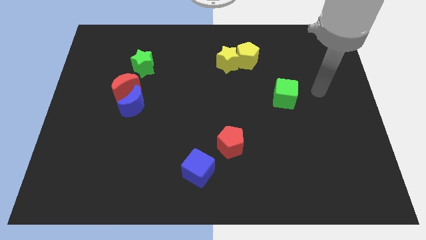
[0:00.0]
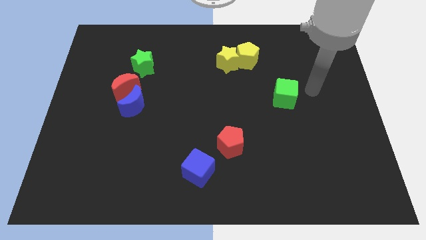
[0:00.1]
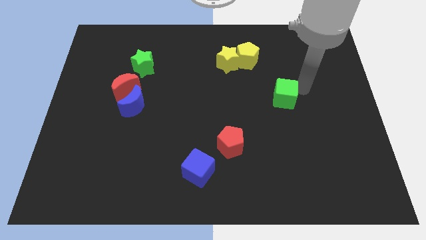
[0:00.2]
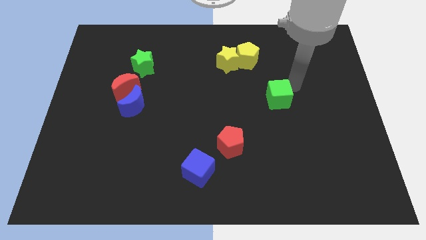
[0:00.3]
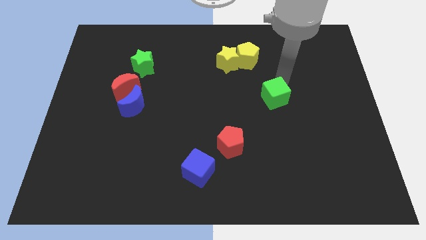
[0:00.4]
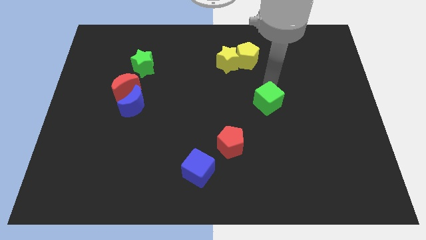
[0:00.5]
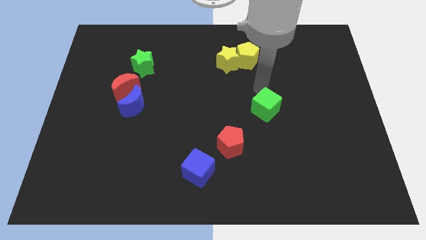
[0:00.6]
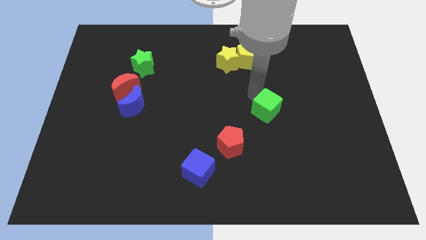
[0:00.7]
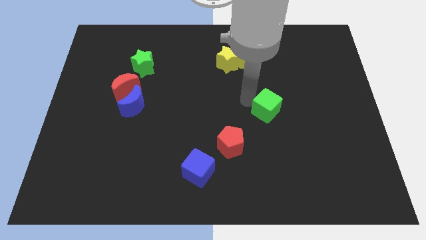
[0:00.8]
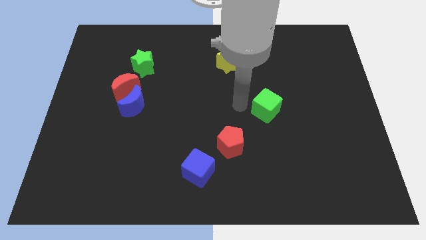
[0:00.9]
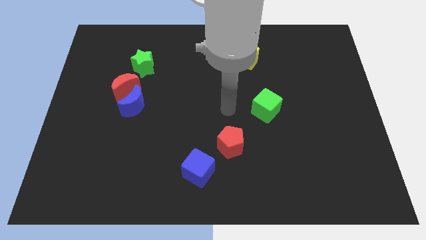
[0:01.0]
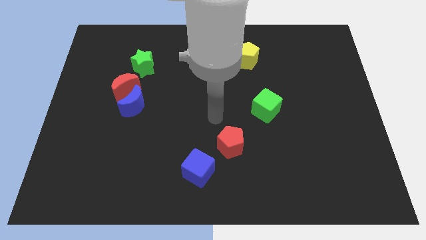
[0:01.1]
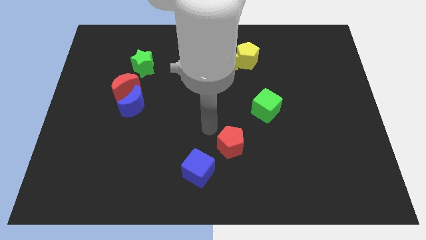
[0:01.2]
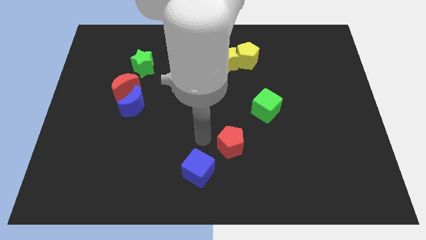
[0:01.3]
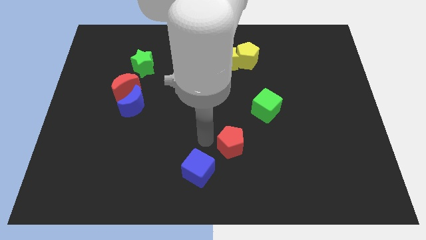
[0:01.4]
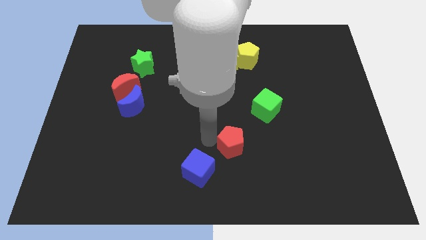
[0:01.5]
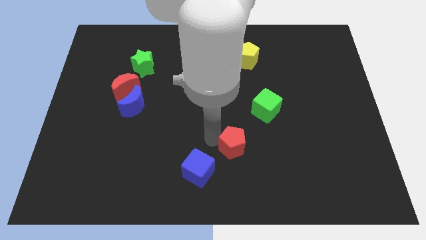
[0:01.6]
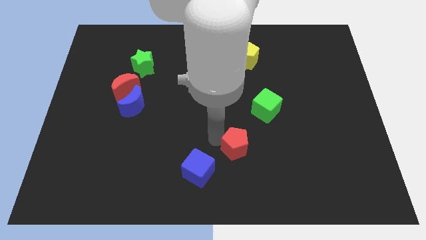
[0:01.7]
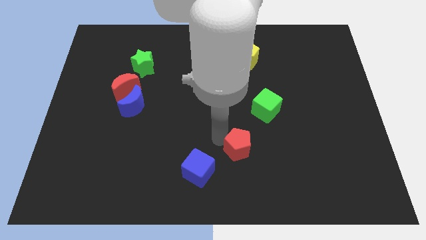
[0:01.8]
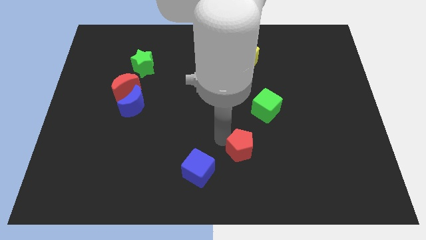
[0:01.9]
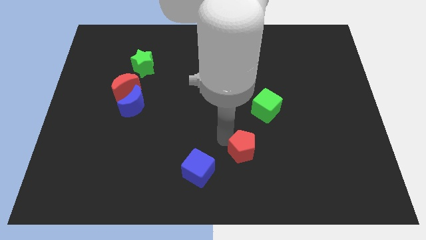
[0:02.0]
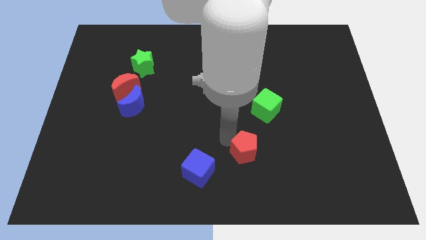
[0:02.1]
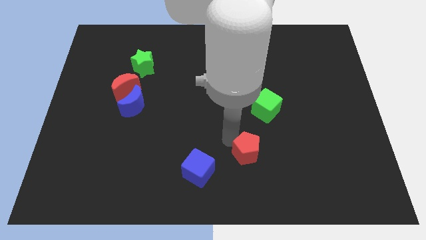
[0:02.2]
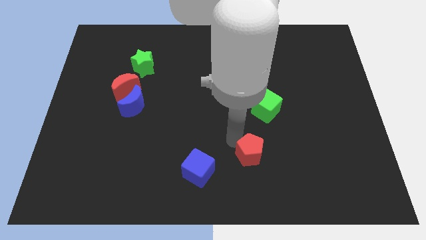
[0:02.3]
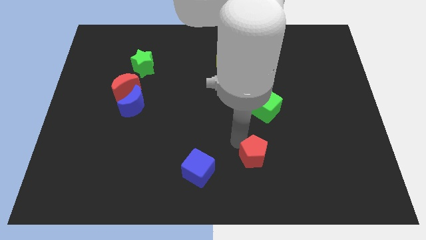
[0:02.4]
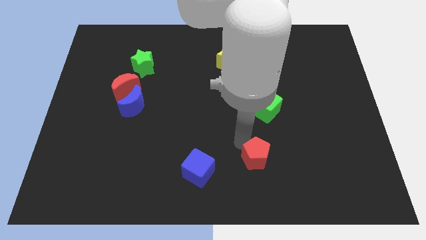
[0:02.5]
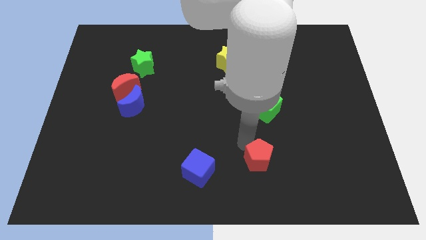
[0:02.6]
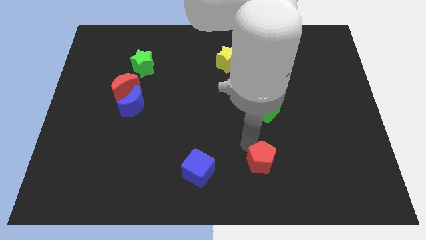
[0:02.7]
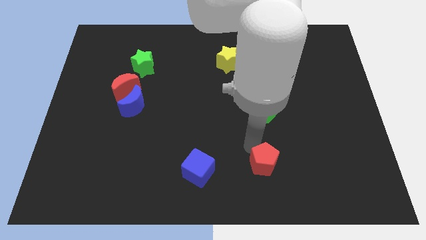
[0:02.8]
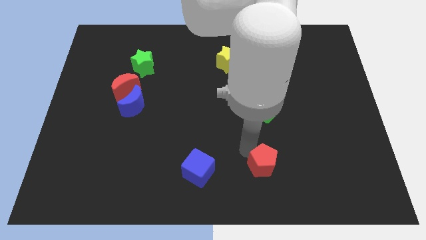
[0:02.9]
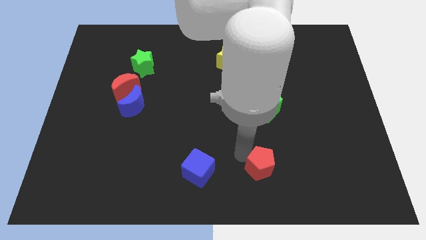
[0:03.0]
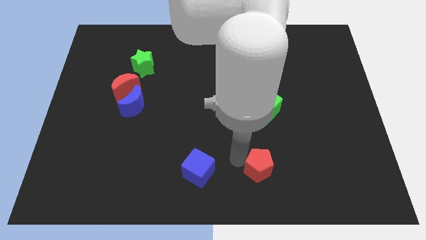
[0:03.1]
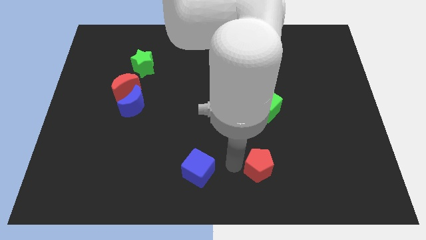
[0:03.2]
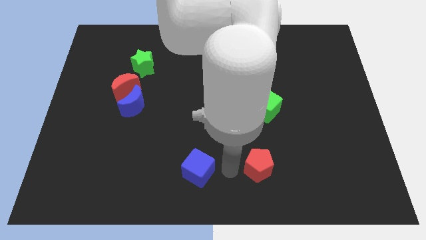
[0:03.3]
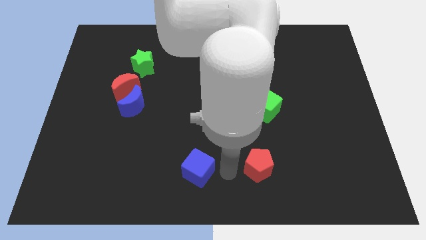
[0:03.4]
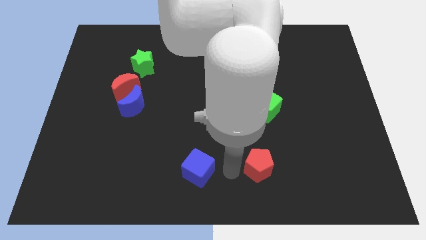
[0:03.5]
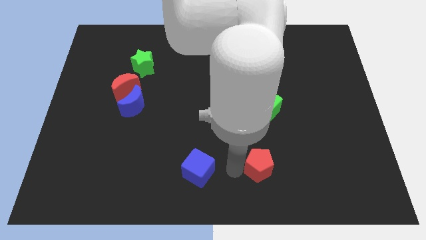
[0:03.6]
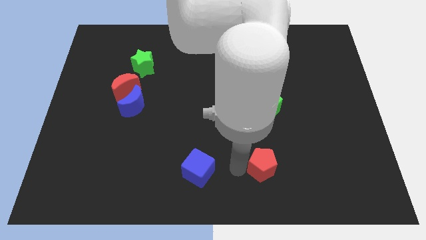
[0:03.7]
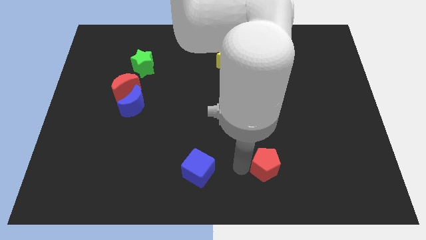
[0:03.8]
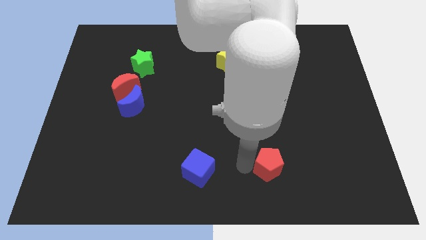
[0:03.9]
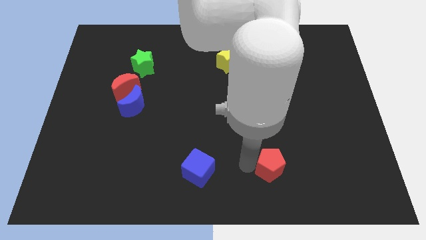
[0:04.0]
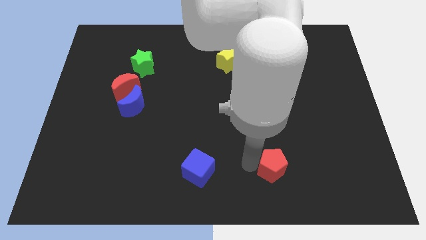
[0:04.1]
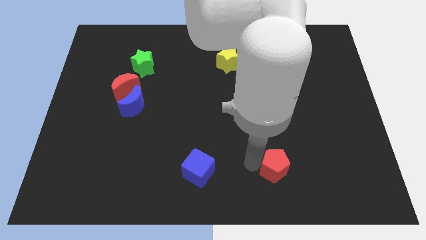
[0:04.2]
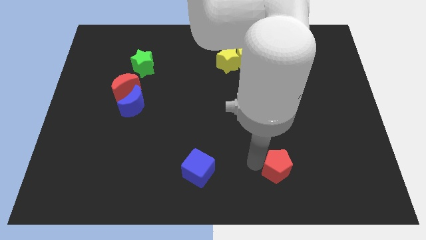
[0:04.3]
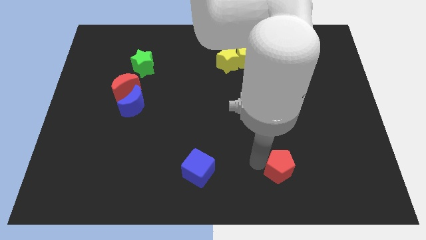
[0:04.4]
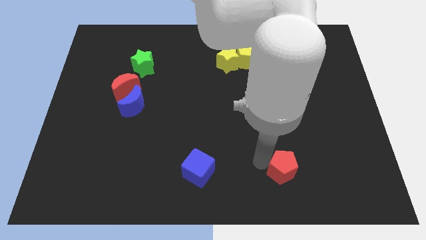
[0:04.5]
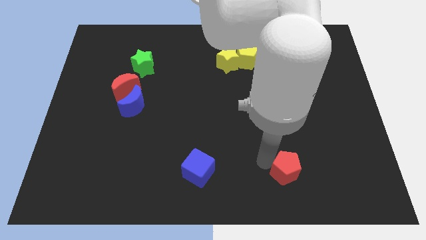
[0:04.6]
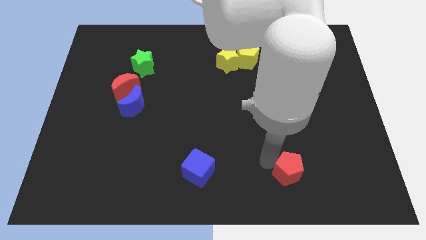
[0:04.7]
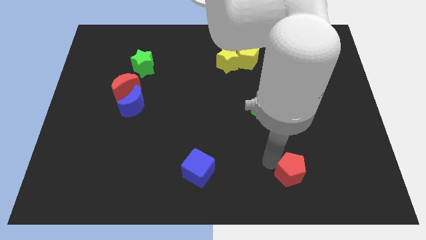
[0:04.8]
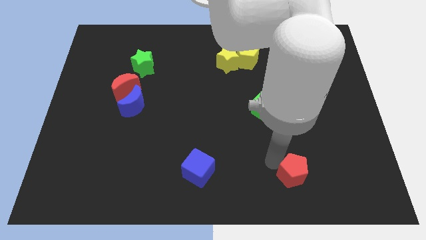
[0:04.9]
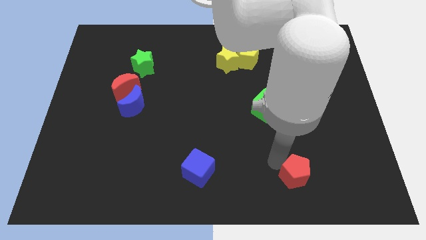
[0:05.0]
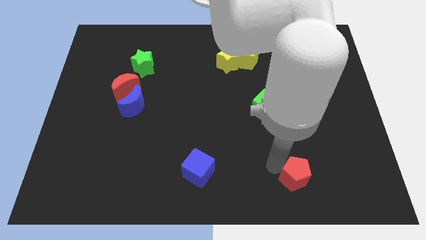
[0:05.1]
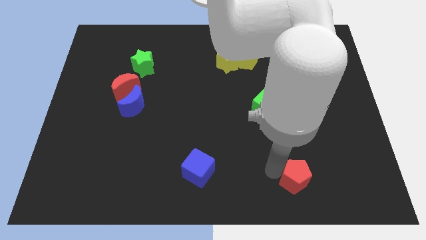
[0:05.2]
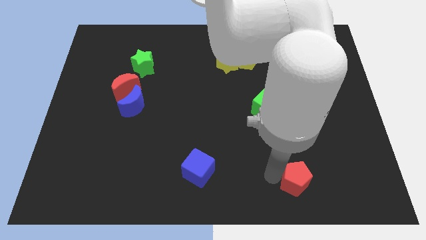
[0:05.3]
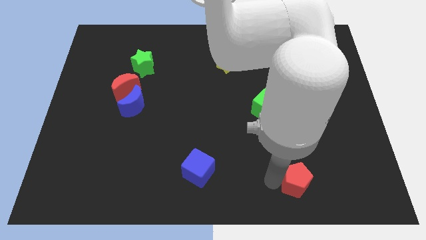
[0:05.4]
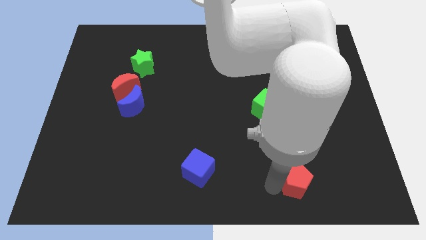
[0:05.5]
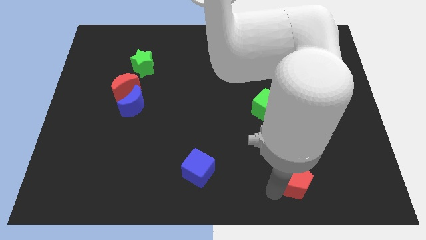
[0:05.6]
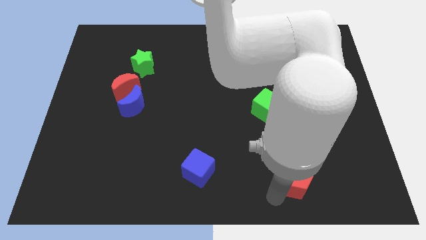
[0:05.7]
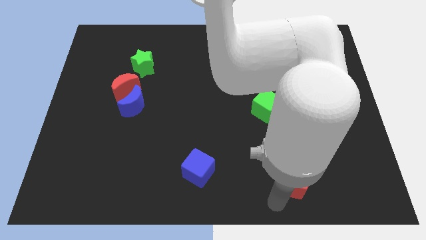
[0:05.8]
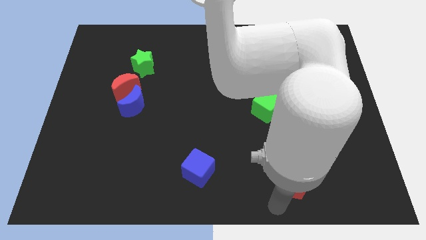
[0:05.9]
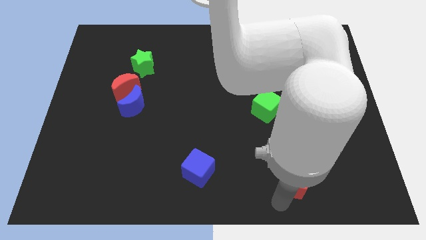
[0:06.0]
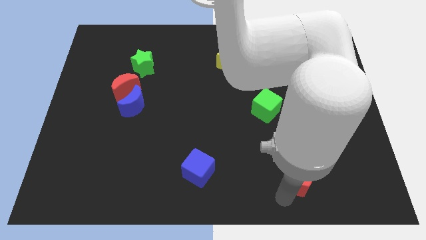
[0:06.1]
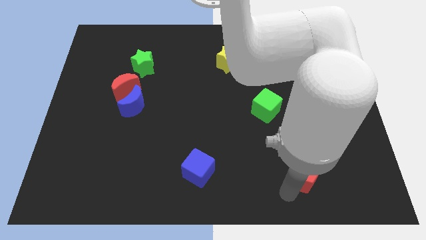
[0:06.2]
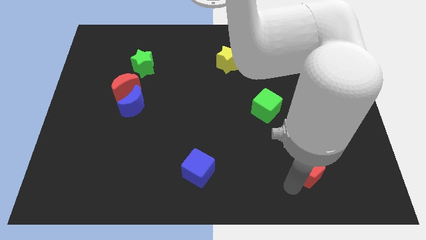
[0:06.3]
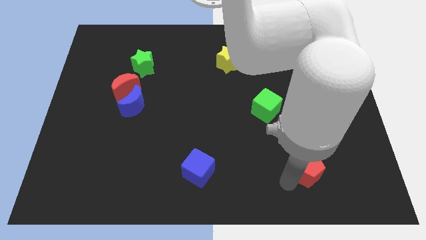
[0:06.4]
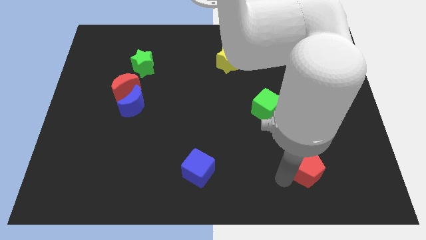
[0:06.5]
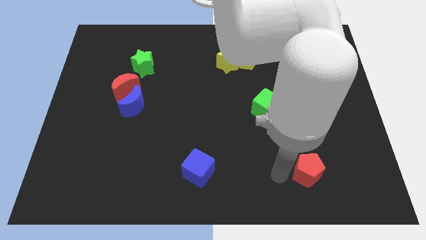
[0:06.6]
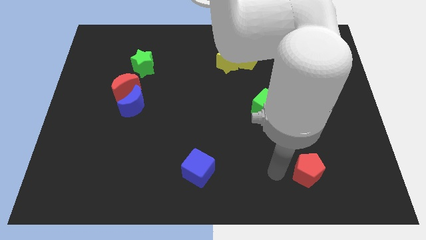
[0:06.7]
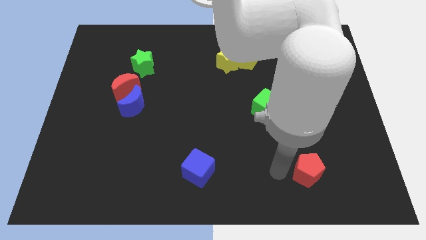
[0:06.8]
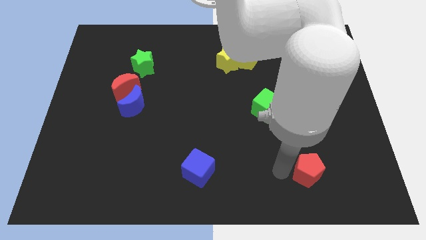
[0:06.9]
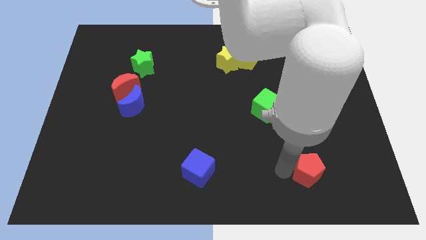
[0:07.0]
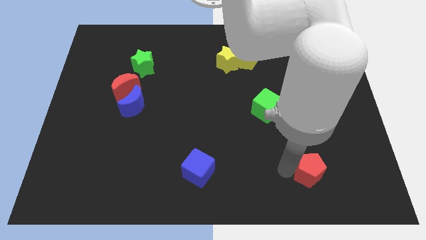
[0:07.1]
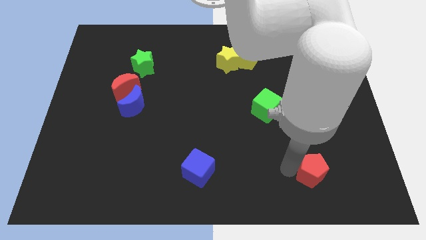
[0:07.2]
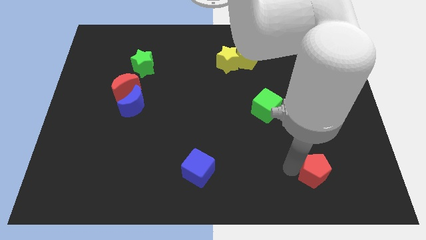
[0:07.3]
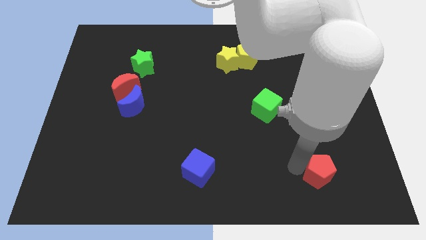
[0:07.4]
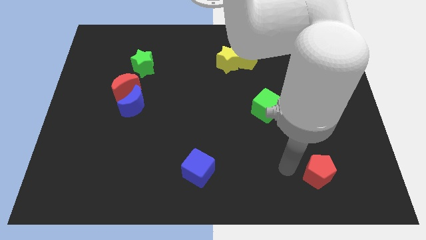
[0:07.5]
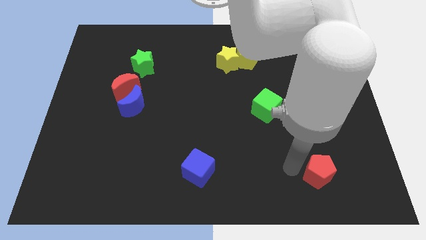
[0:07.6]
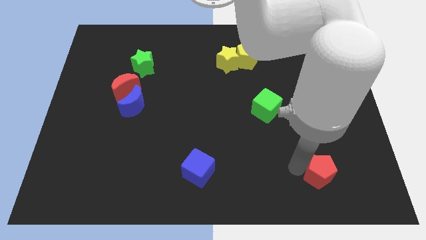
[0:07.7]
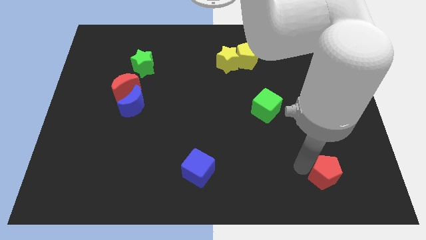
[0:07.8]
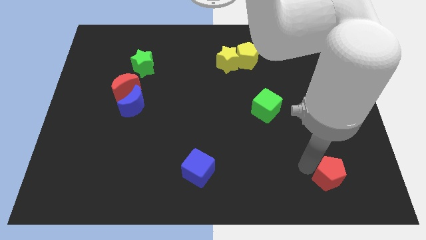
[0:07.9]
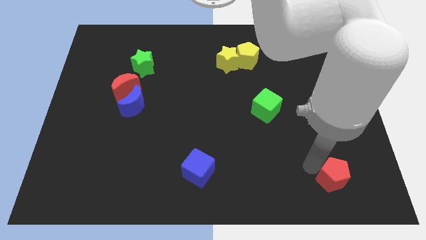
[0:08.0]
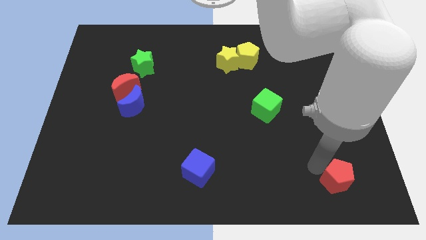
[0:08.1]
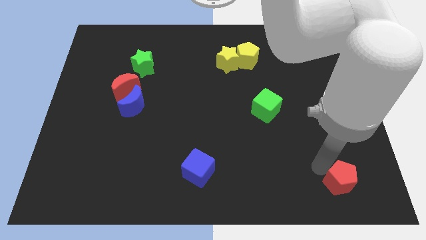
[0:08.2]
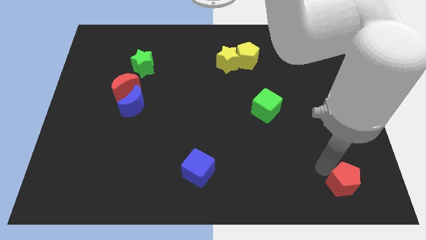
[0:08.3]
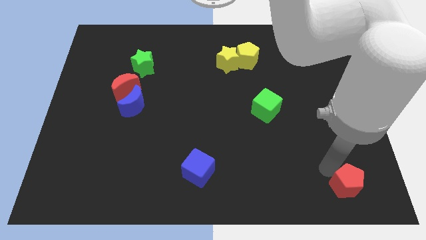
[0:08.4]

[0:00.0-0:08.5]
push the red pentagon to the bottom right
